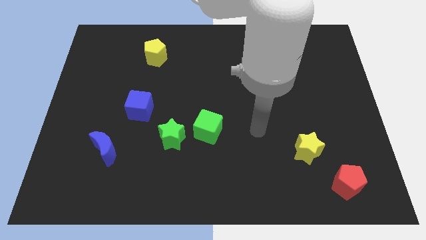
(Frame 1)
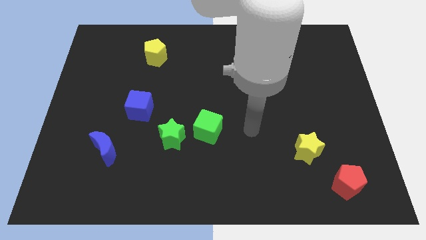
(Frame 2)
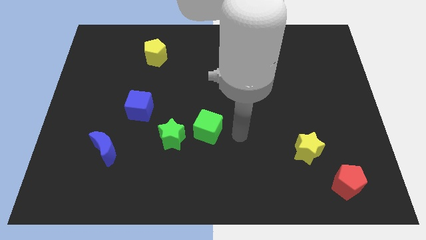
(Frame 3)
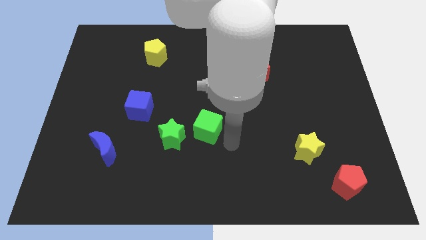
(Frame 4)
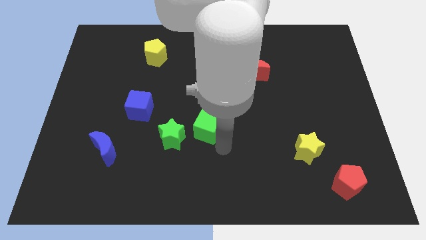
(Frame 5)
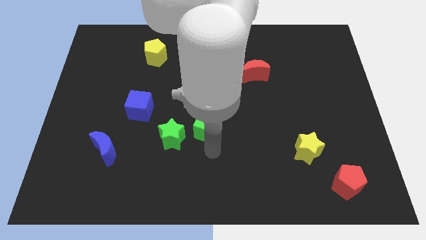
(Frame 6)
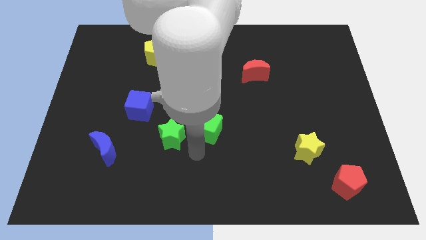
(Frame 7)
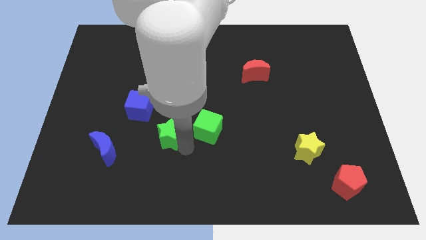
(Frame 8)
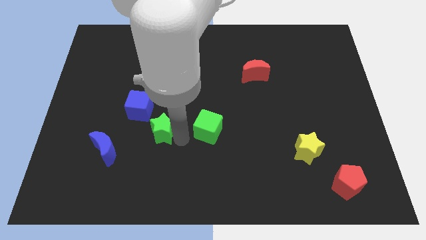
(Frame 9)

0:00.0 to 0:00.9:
pull the green cube apart from the green star

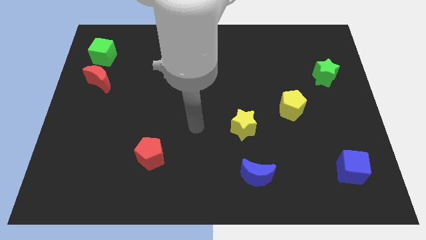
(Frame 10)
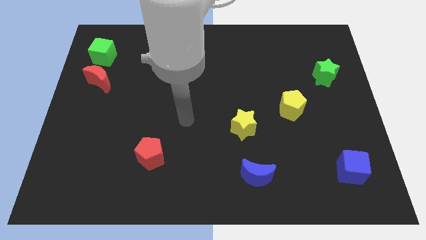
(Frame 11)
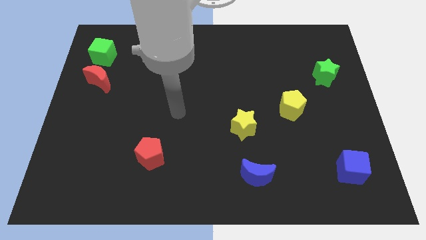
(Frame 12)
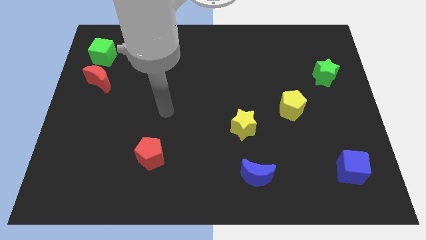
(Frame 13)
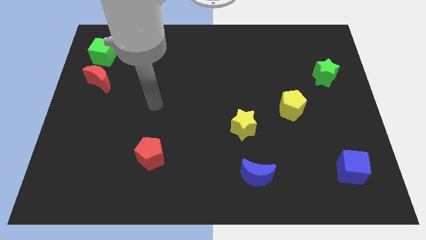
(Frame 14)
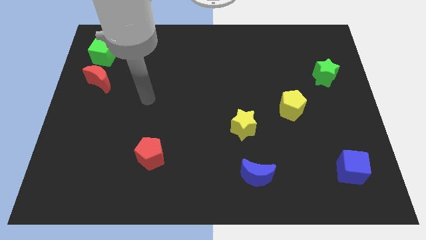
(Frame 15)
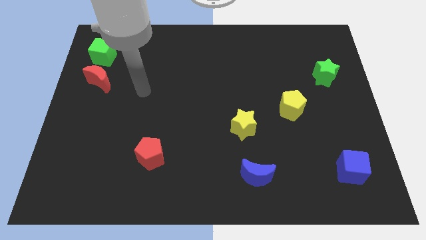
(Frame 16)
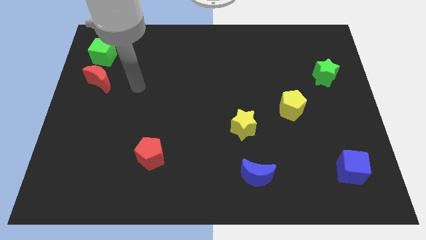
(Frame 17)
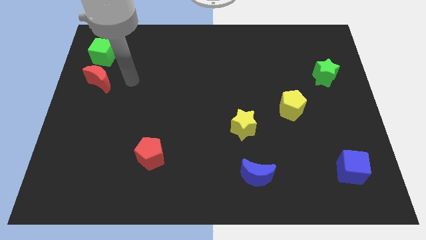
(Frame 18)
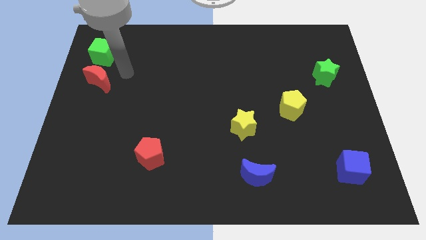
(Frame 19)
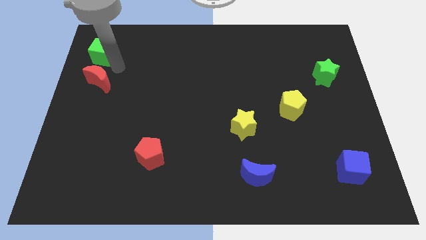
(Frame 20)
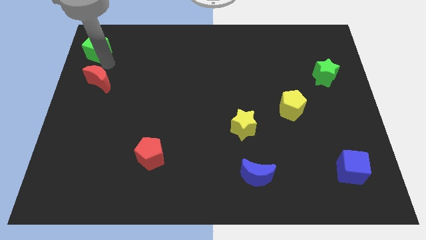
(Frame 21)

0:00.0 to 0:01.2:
pull the red moon apart from the green cube

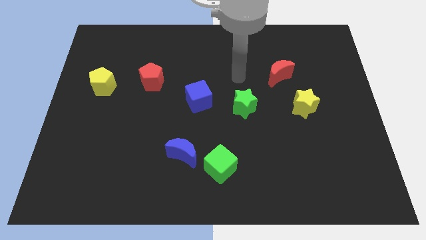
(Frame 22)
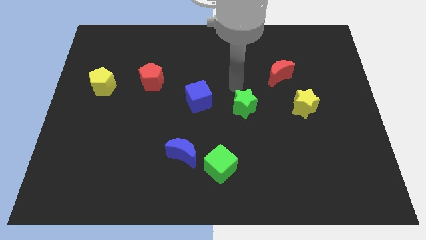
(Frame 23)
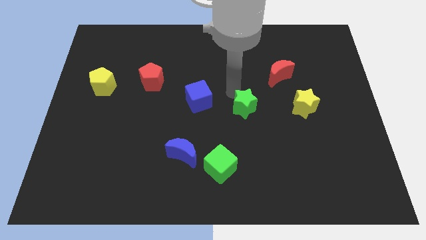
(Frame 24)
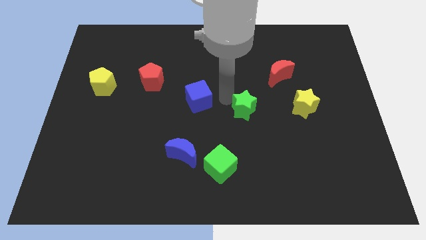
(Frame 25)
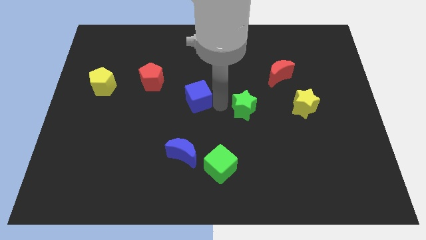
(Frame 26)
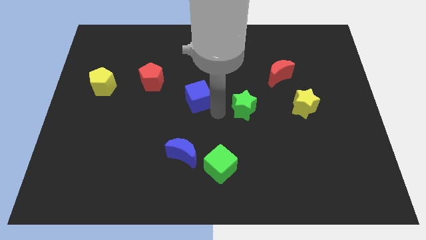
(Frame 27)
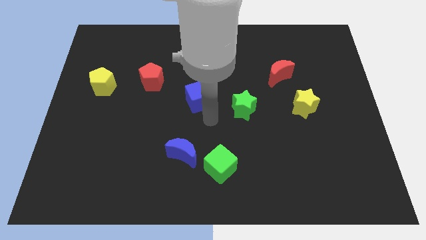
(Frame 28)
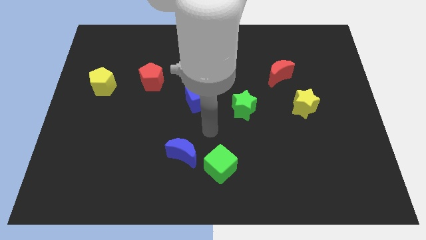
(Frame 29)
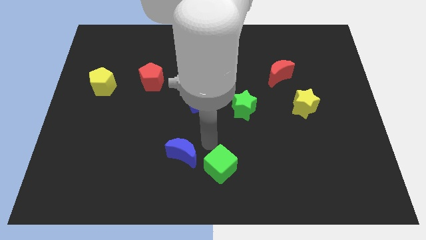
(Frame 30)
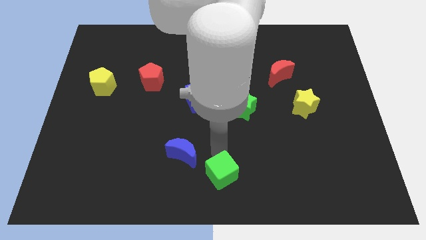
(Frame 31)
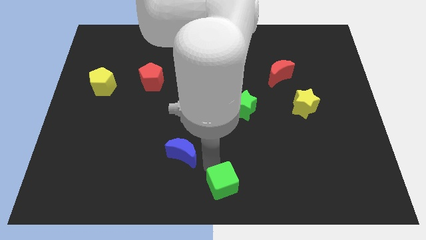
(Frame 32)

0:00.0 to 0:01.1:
pull the blue moon apart from the green cube

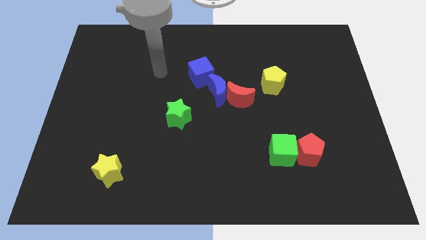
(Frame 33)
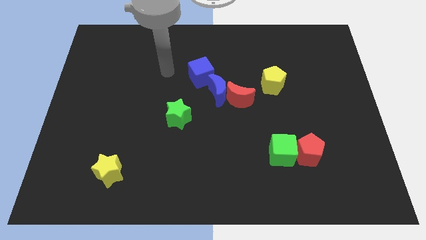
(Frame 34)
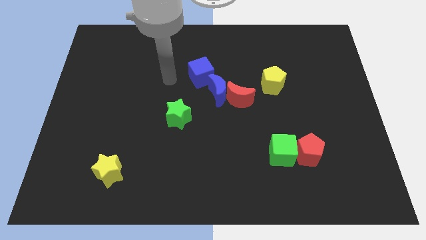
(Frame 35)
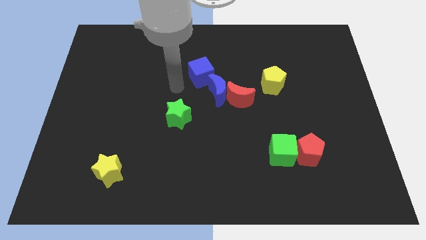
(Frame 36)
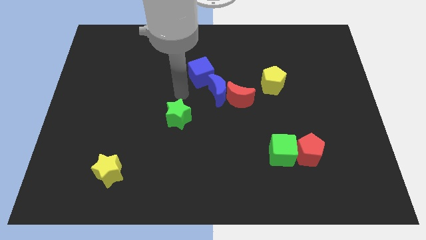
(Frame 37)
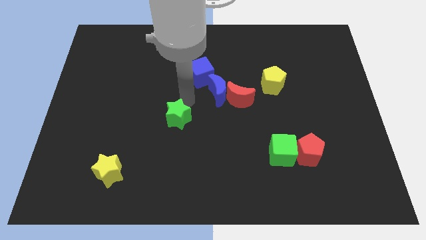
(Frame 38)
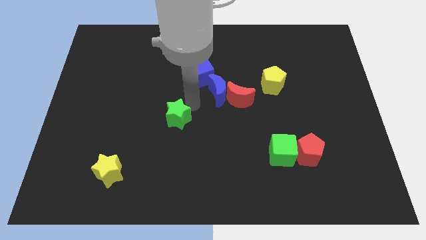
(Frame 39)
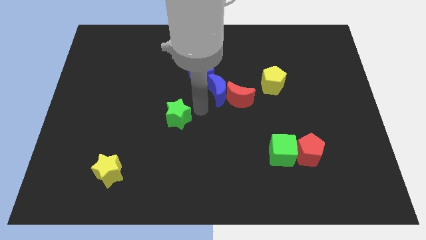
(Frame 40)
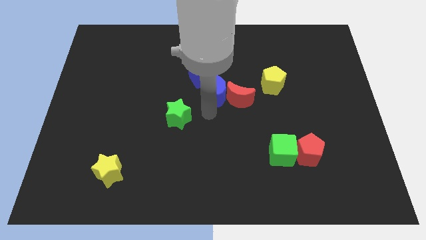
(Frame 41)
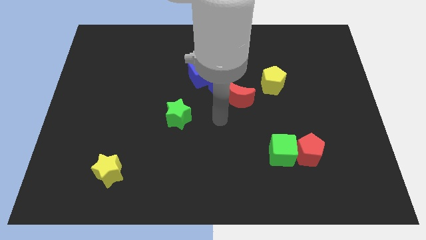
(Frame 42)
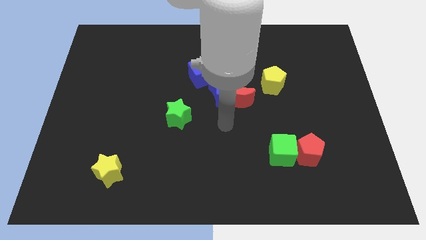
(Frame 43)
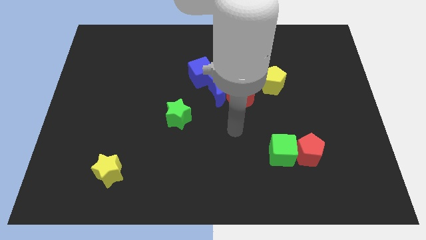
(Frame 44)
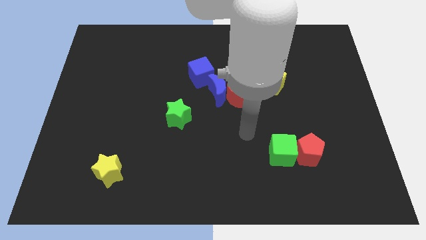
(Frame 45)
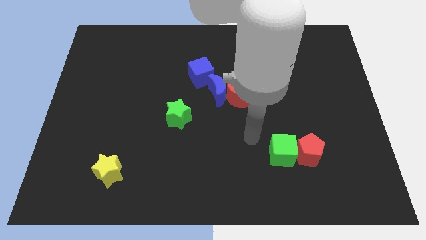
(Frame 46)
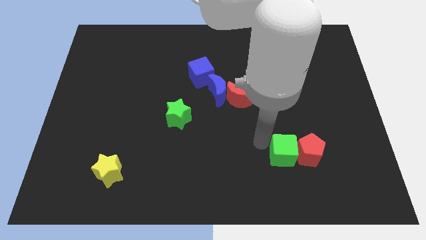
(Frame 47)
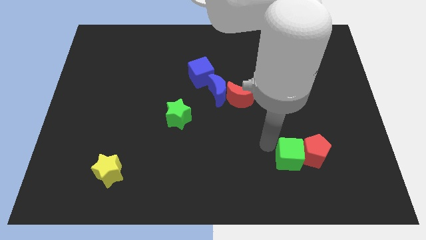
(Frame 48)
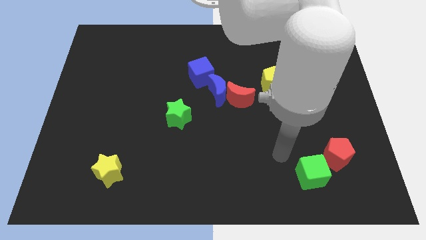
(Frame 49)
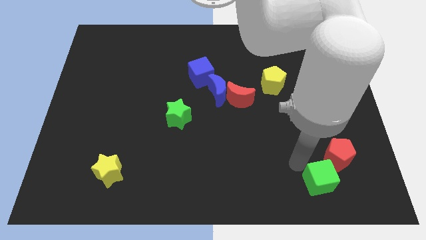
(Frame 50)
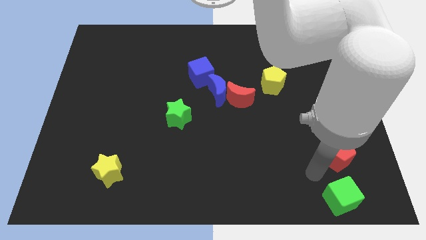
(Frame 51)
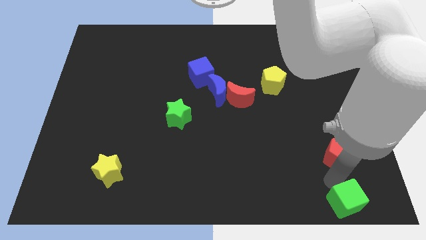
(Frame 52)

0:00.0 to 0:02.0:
pull the red pentagon apart from the green cube

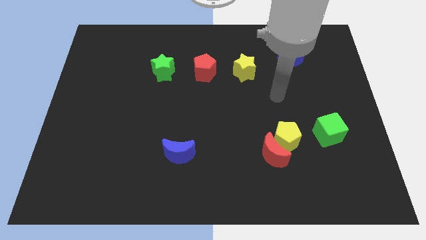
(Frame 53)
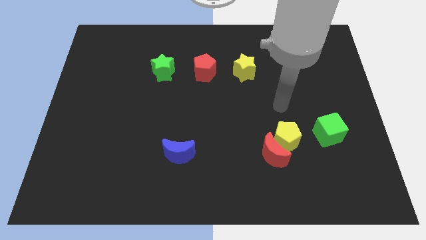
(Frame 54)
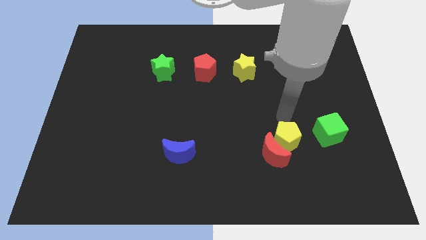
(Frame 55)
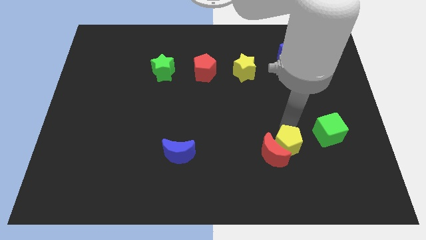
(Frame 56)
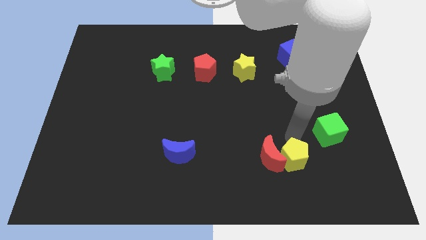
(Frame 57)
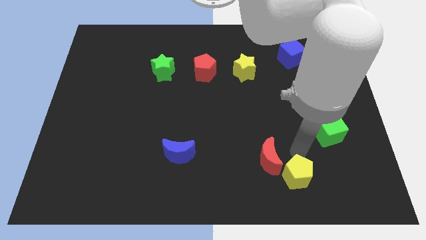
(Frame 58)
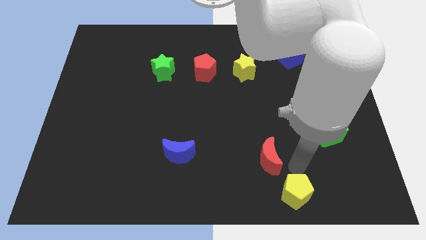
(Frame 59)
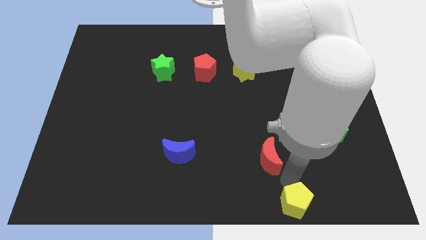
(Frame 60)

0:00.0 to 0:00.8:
separate the red moon from the yellow pentagon

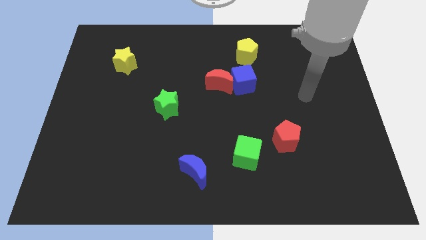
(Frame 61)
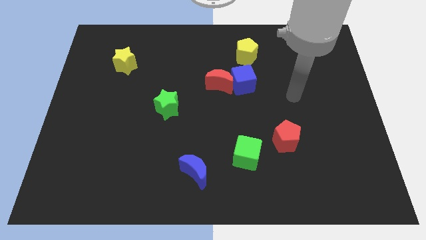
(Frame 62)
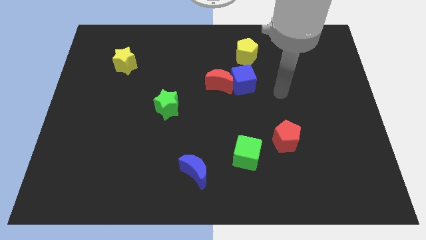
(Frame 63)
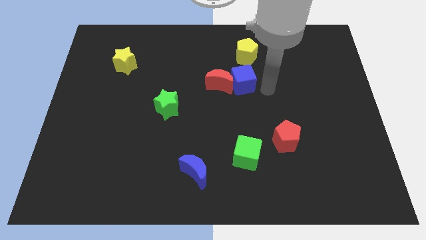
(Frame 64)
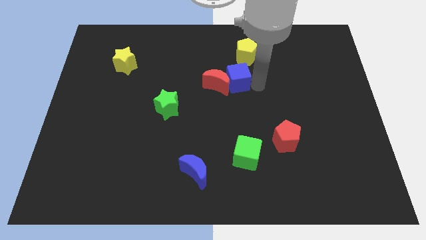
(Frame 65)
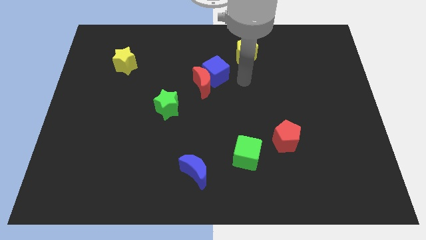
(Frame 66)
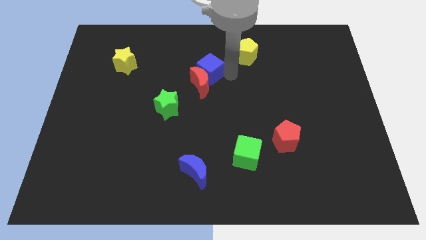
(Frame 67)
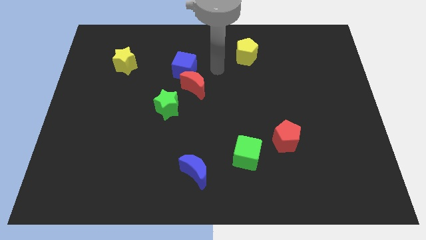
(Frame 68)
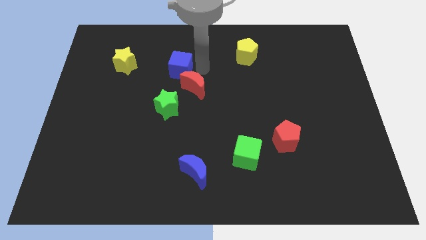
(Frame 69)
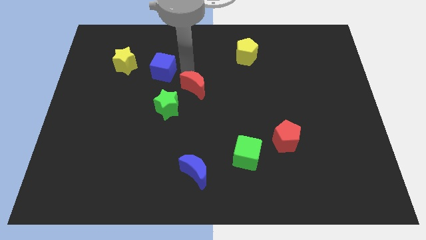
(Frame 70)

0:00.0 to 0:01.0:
pull the red moon apart from the blue cube

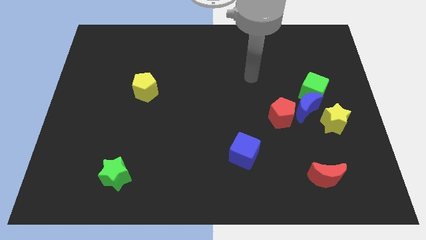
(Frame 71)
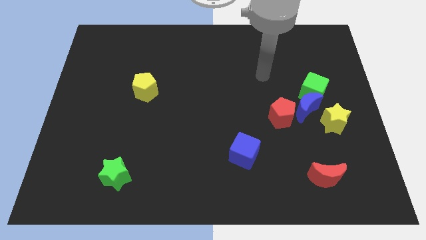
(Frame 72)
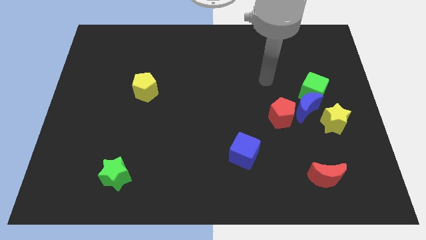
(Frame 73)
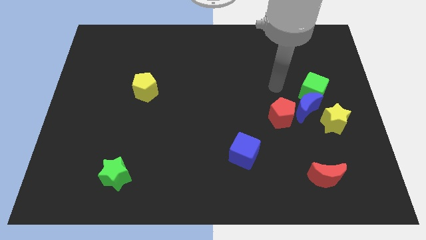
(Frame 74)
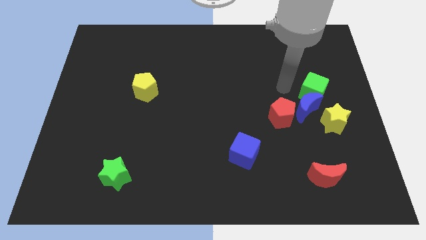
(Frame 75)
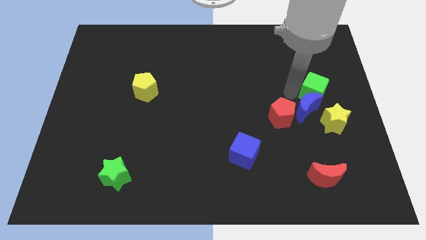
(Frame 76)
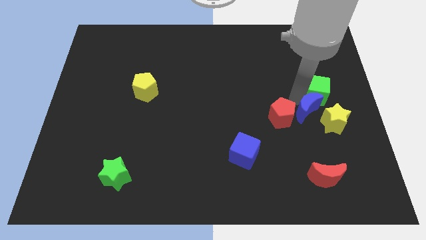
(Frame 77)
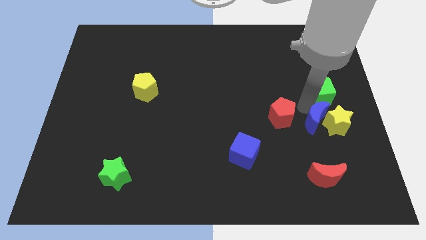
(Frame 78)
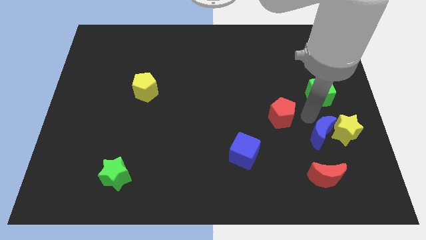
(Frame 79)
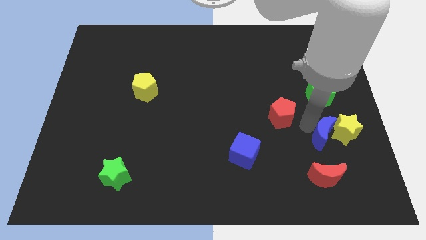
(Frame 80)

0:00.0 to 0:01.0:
separate the red pentagon from the blue moon

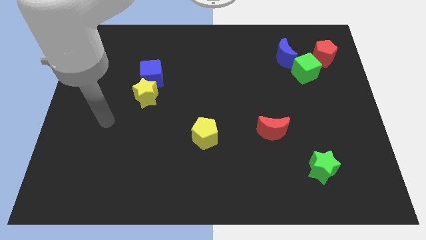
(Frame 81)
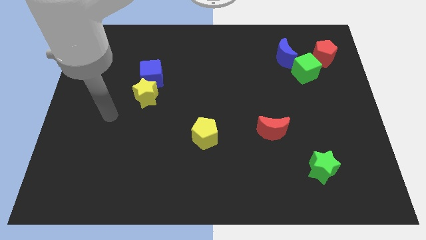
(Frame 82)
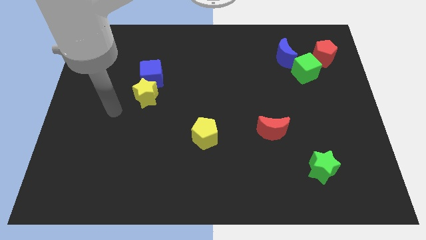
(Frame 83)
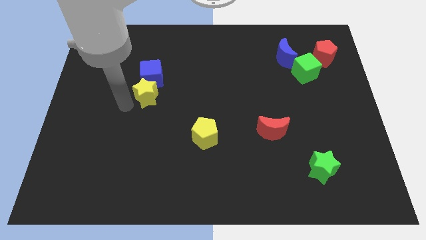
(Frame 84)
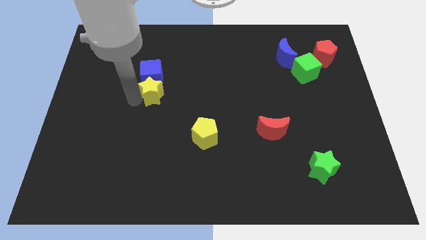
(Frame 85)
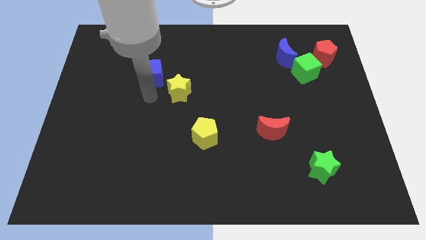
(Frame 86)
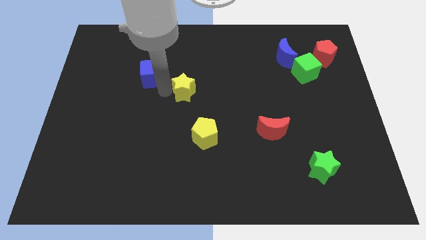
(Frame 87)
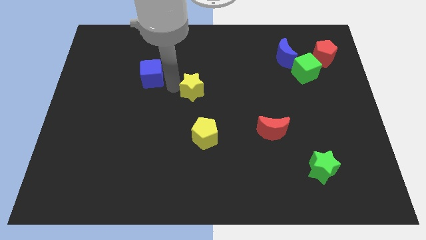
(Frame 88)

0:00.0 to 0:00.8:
separate the blue cube from the yellow star

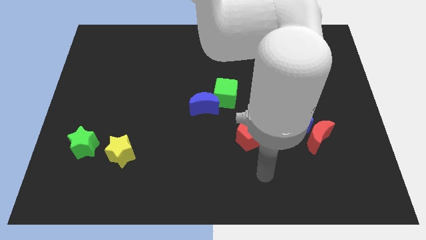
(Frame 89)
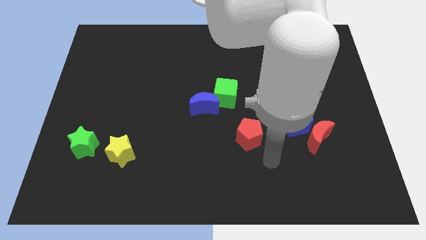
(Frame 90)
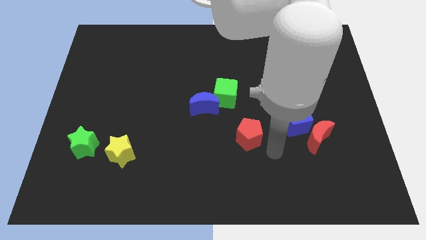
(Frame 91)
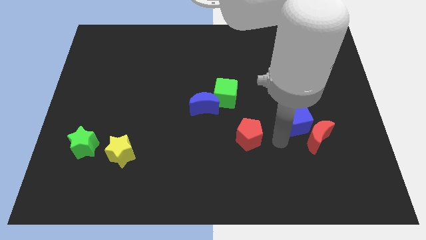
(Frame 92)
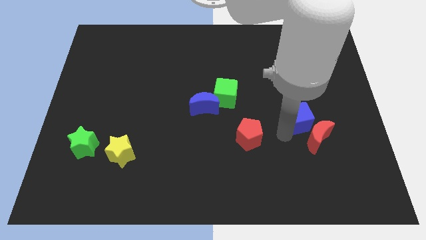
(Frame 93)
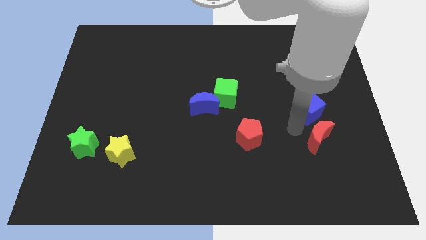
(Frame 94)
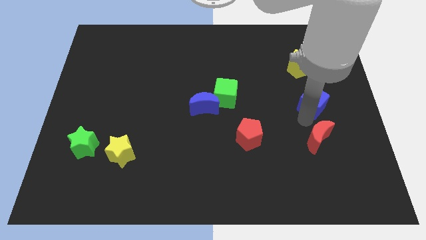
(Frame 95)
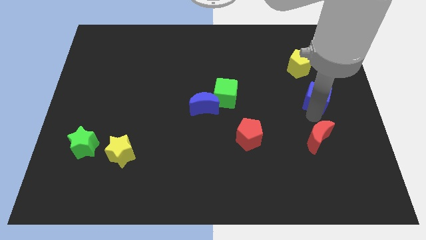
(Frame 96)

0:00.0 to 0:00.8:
move the red moon away from the blue cube
